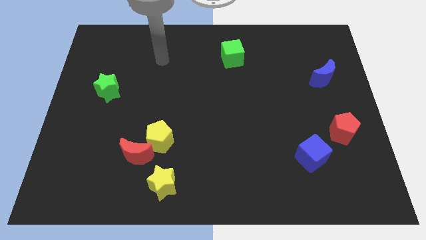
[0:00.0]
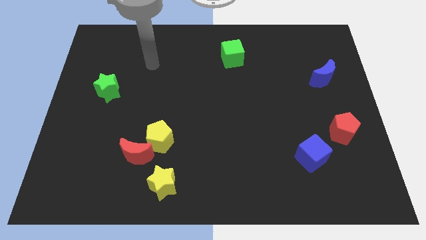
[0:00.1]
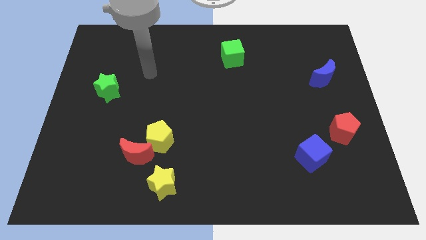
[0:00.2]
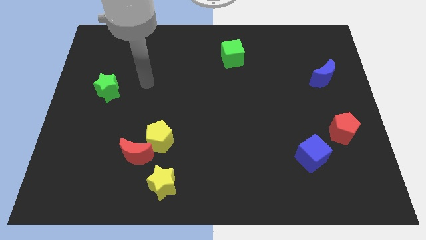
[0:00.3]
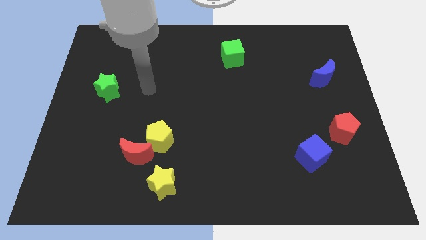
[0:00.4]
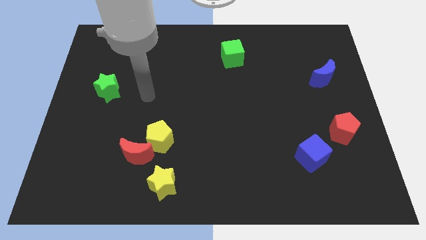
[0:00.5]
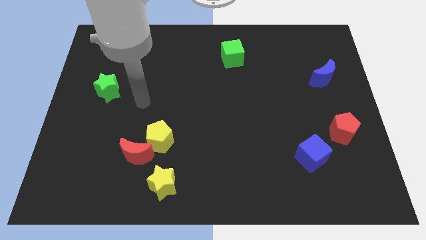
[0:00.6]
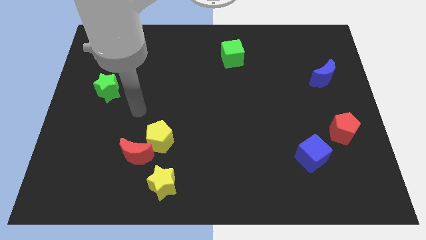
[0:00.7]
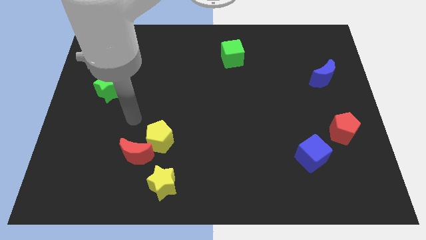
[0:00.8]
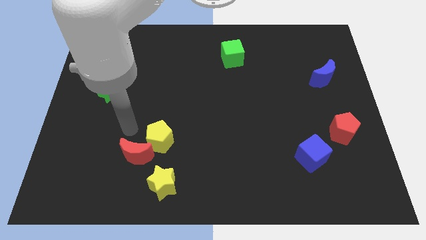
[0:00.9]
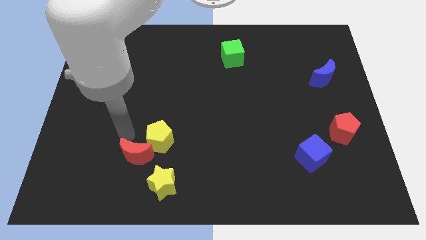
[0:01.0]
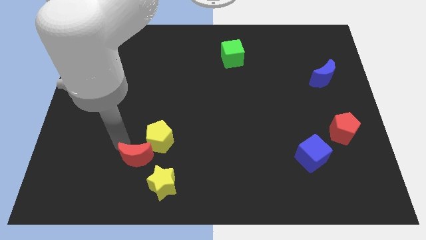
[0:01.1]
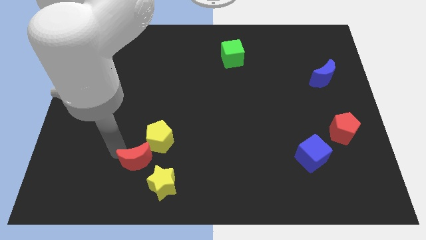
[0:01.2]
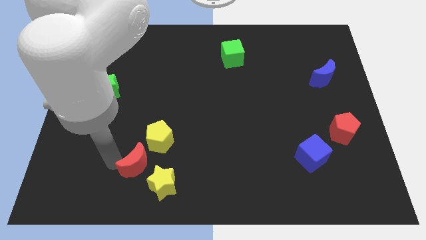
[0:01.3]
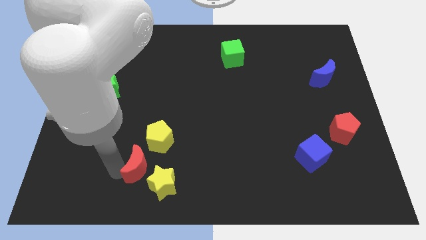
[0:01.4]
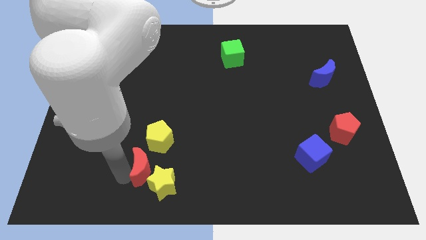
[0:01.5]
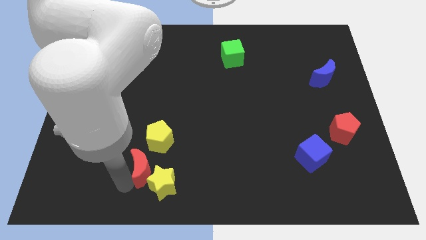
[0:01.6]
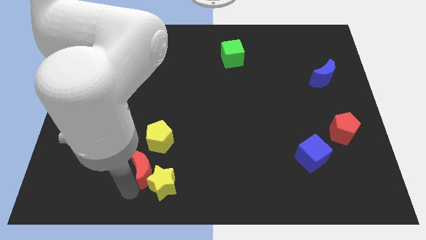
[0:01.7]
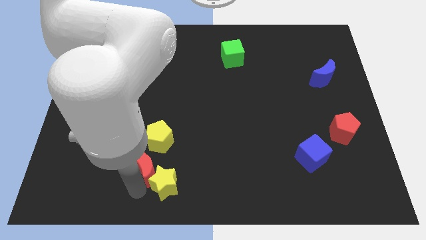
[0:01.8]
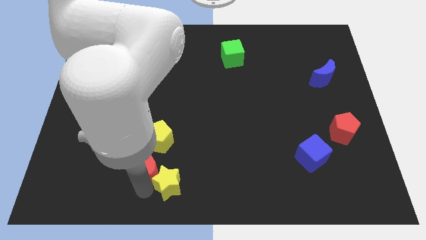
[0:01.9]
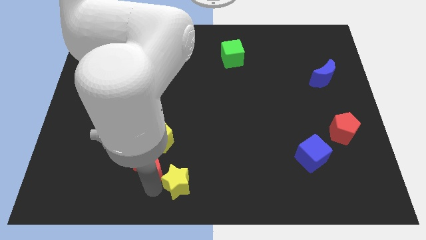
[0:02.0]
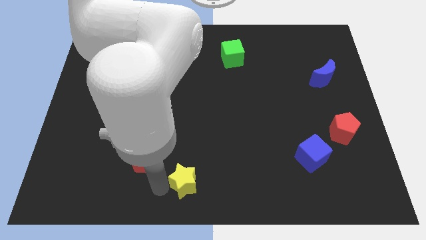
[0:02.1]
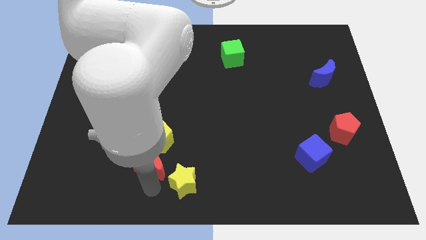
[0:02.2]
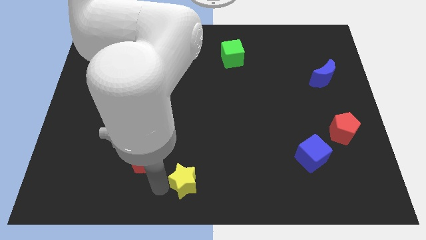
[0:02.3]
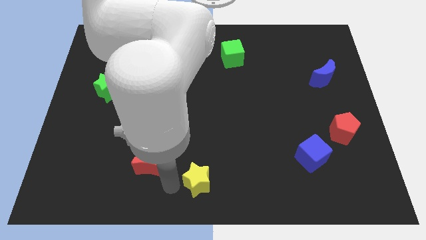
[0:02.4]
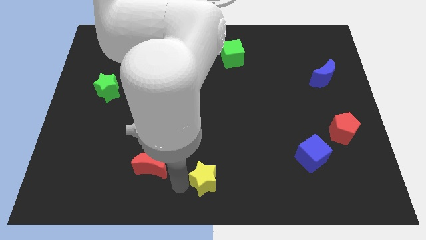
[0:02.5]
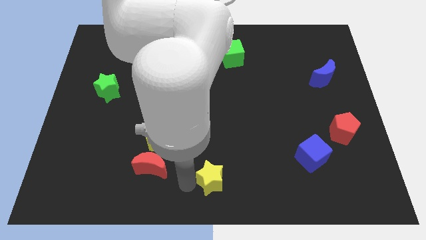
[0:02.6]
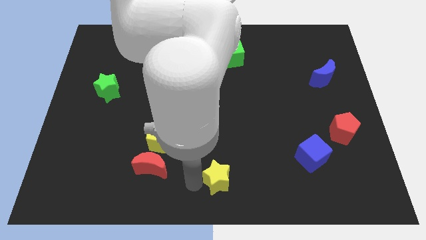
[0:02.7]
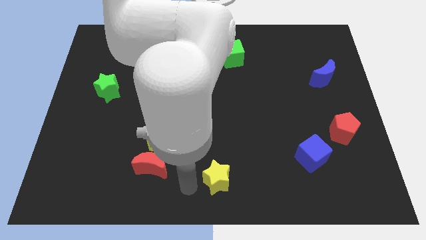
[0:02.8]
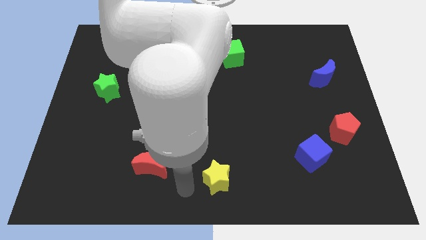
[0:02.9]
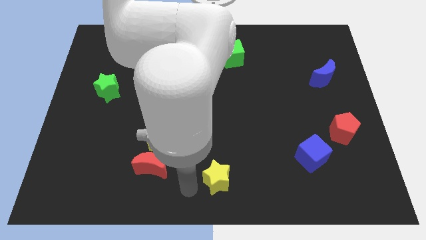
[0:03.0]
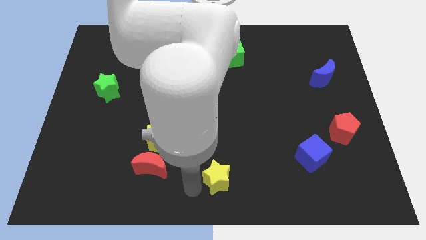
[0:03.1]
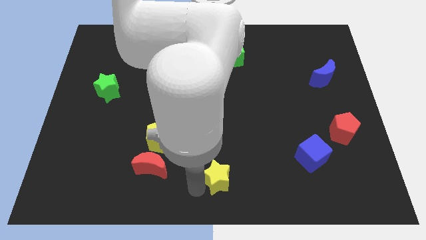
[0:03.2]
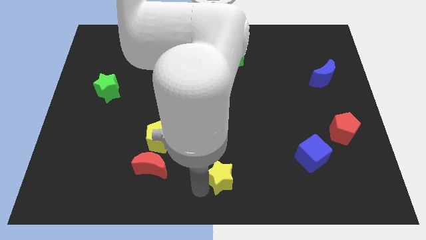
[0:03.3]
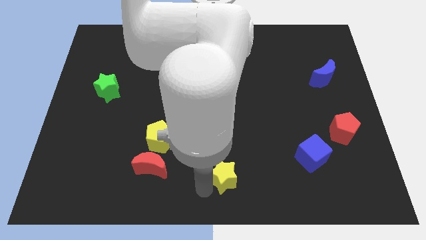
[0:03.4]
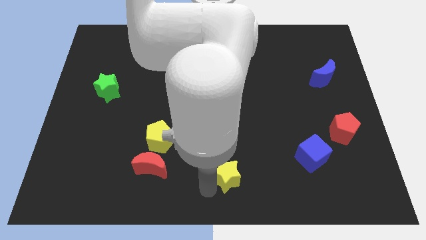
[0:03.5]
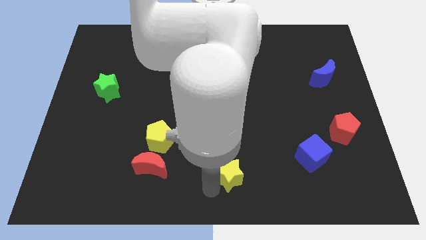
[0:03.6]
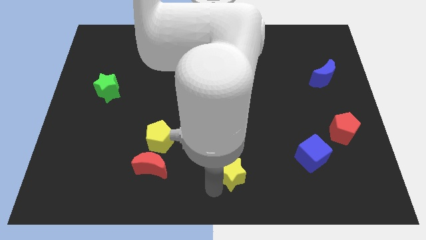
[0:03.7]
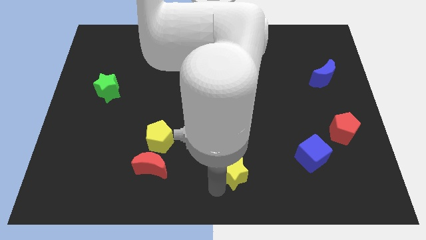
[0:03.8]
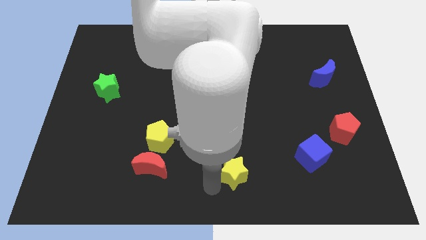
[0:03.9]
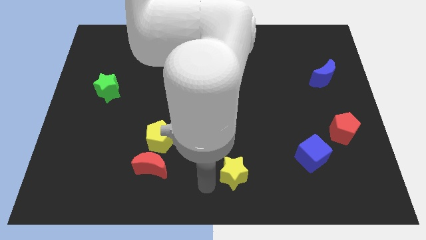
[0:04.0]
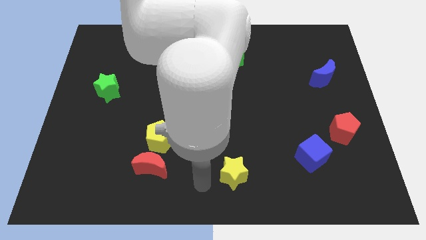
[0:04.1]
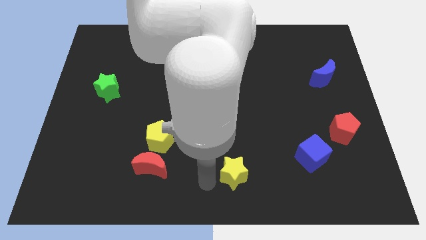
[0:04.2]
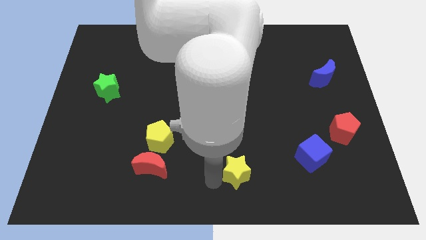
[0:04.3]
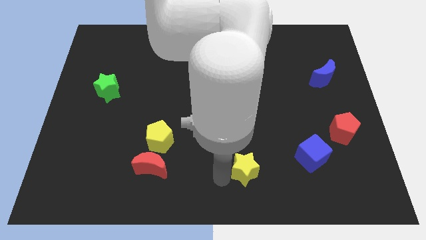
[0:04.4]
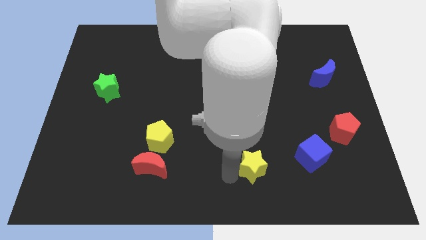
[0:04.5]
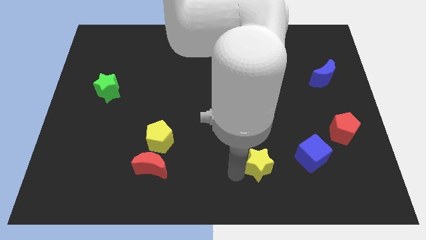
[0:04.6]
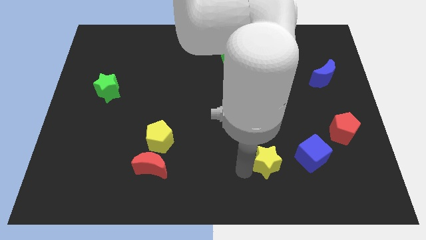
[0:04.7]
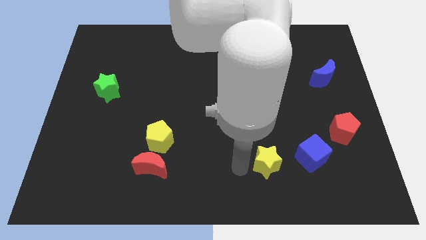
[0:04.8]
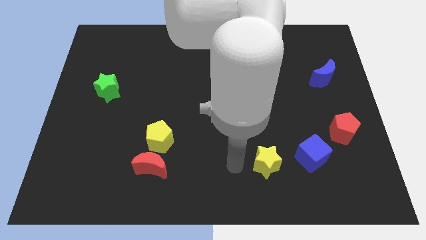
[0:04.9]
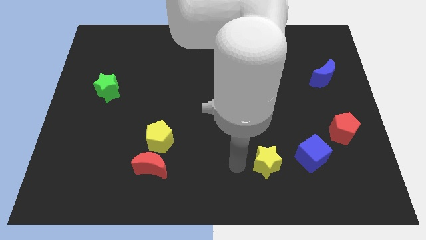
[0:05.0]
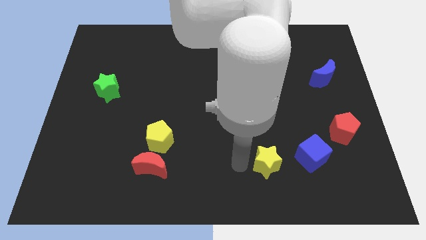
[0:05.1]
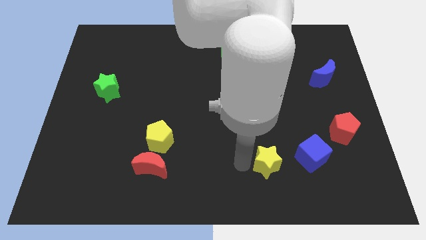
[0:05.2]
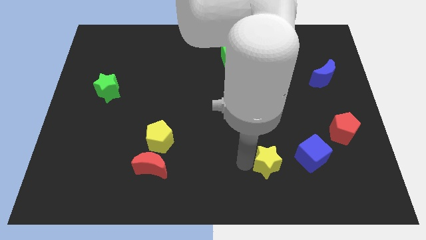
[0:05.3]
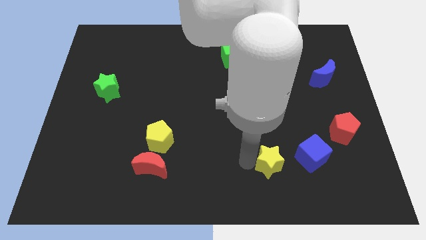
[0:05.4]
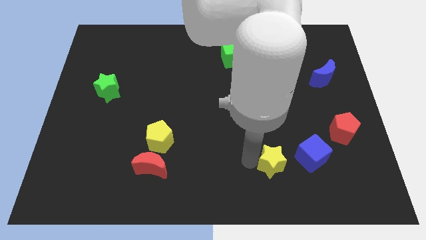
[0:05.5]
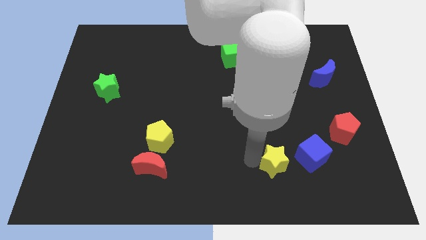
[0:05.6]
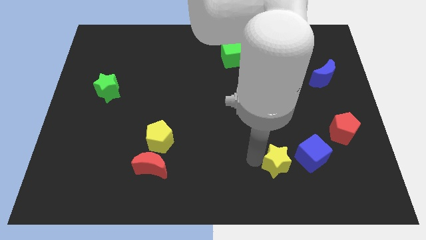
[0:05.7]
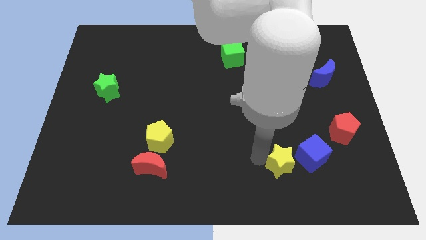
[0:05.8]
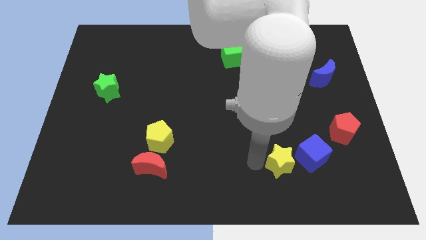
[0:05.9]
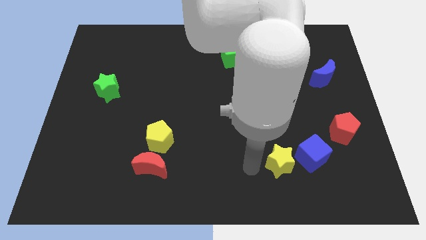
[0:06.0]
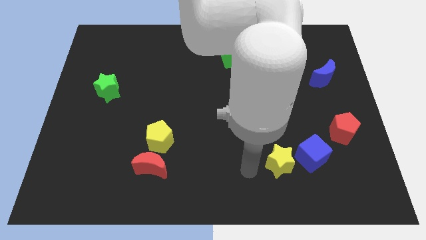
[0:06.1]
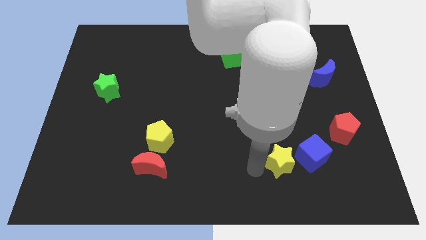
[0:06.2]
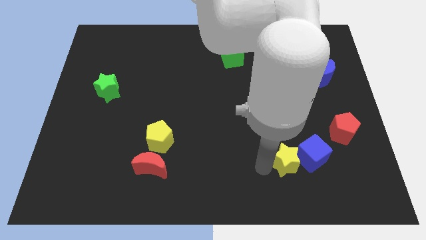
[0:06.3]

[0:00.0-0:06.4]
push the yellow star next to the blue cube
